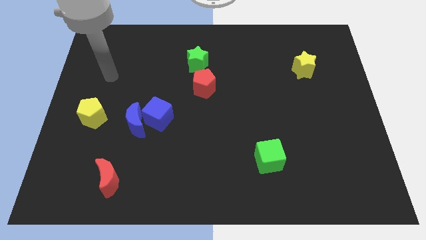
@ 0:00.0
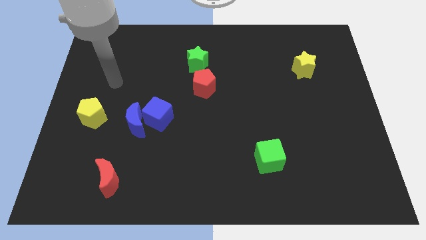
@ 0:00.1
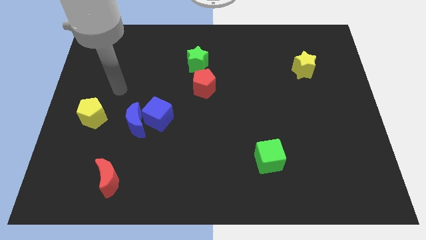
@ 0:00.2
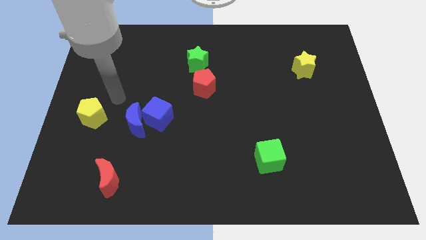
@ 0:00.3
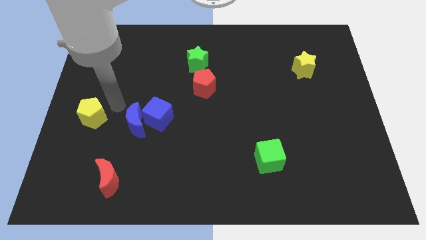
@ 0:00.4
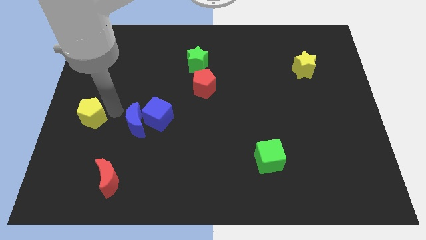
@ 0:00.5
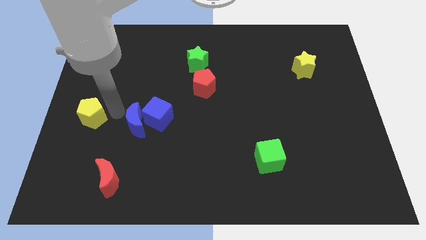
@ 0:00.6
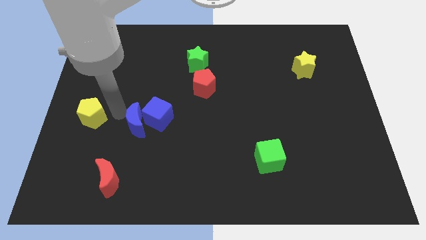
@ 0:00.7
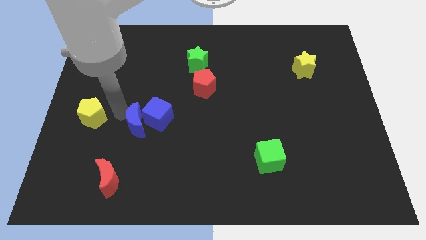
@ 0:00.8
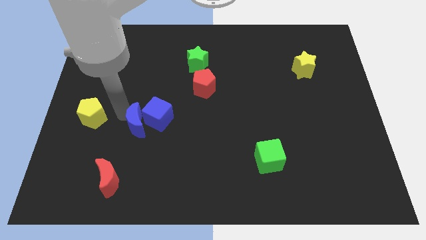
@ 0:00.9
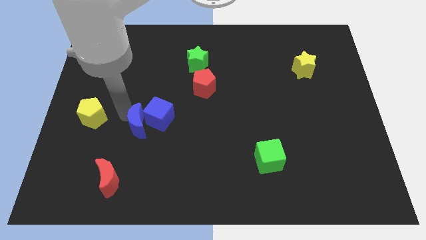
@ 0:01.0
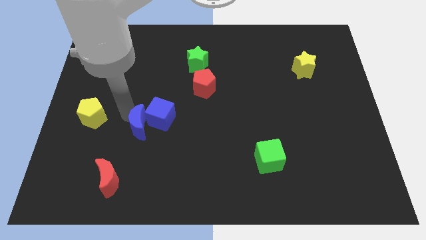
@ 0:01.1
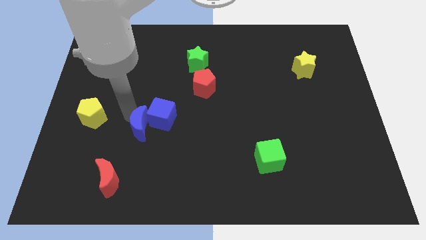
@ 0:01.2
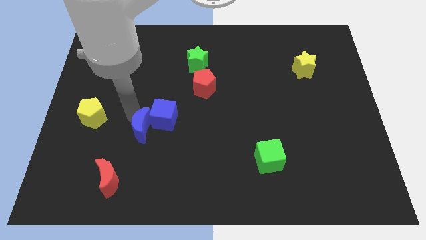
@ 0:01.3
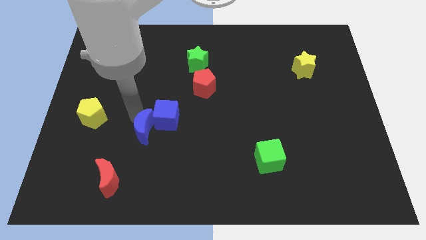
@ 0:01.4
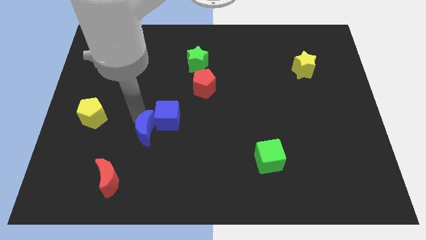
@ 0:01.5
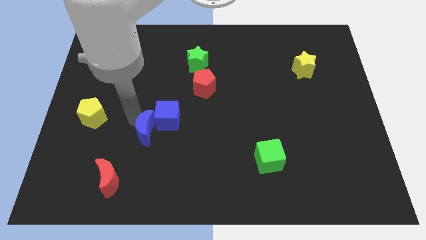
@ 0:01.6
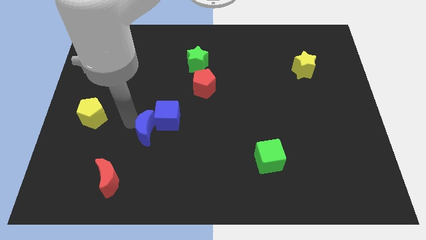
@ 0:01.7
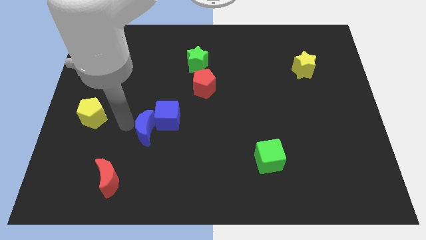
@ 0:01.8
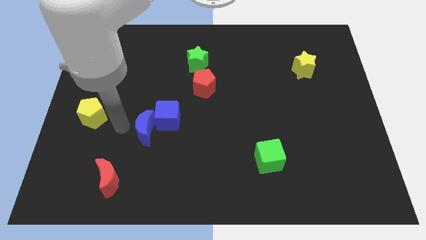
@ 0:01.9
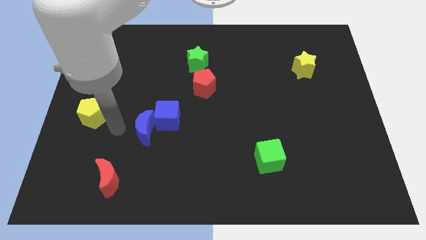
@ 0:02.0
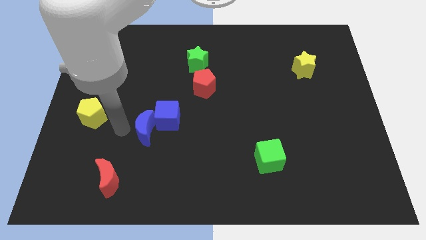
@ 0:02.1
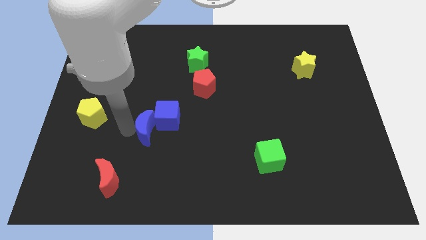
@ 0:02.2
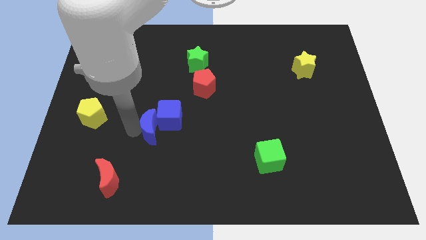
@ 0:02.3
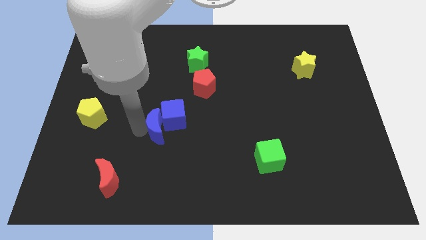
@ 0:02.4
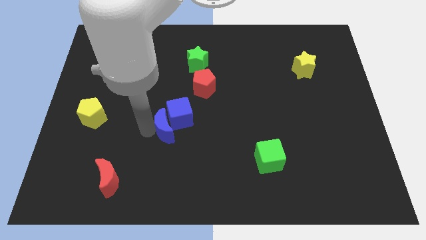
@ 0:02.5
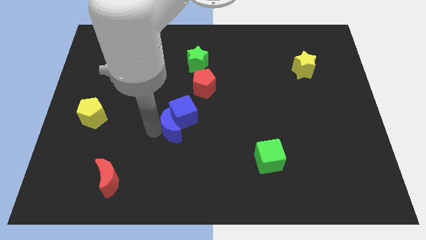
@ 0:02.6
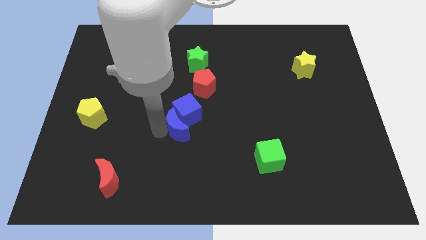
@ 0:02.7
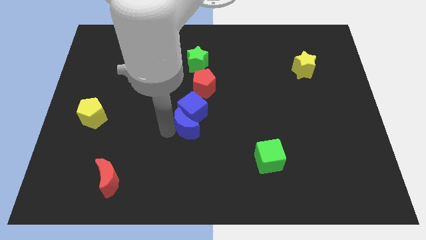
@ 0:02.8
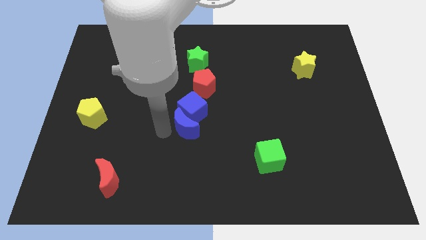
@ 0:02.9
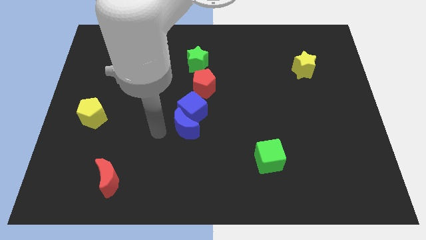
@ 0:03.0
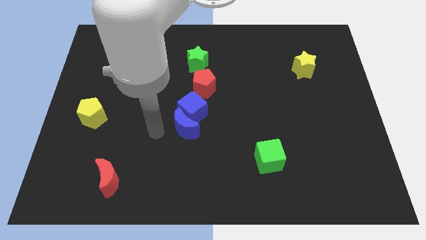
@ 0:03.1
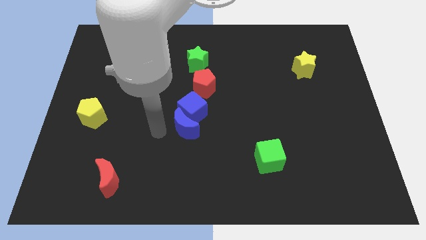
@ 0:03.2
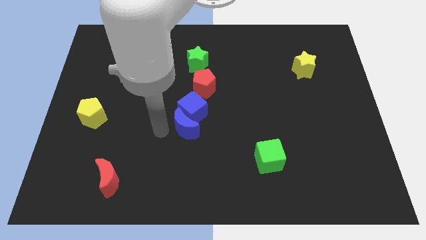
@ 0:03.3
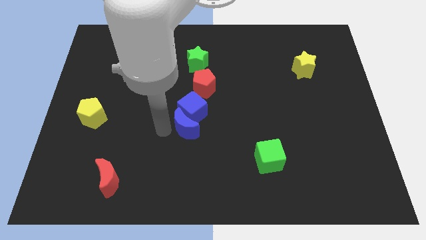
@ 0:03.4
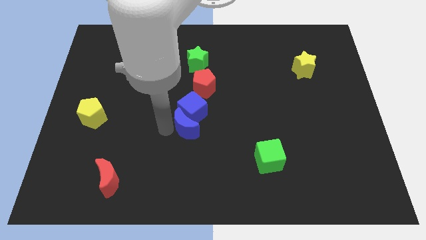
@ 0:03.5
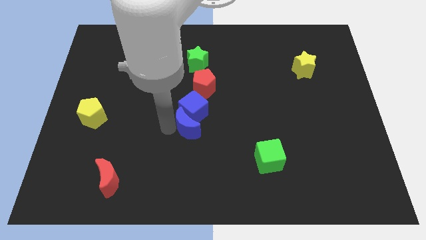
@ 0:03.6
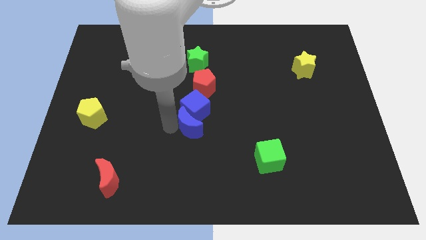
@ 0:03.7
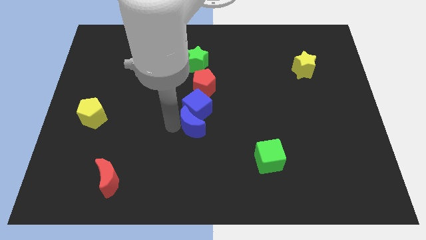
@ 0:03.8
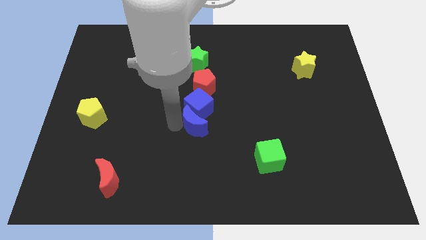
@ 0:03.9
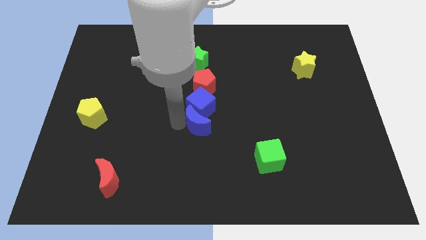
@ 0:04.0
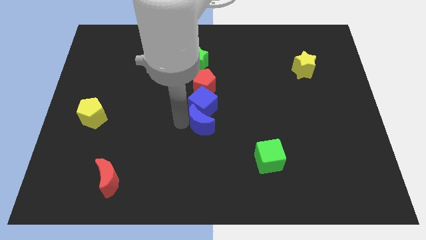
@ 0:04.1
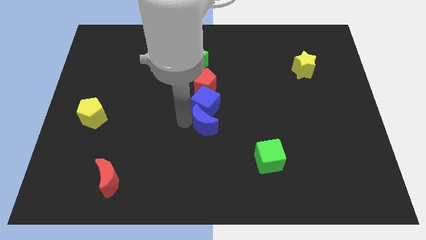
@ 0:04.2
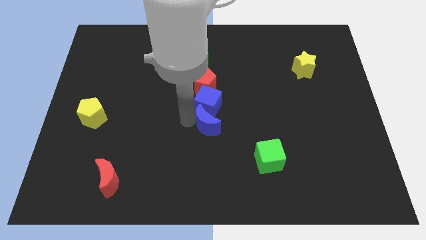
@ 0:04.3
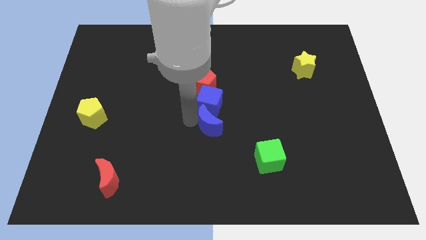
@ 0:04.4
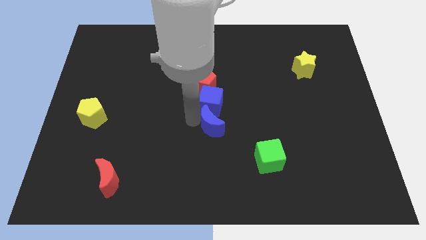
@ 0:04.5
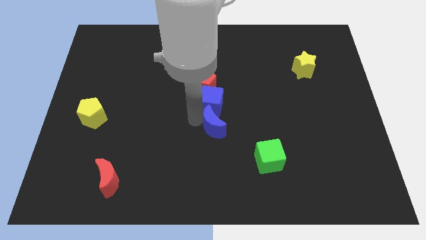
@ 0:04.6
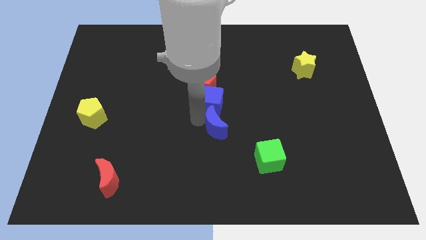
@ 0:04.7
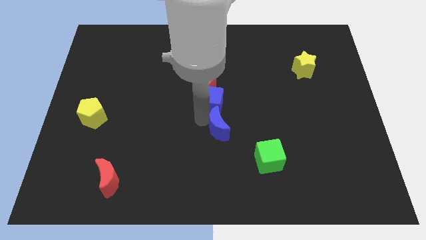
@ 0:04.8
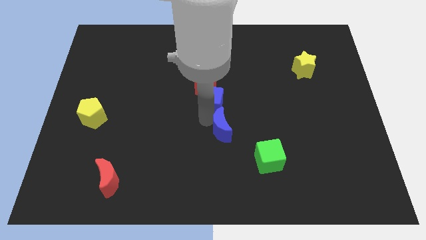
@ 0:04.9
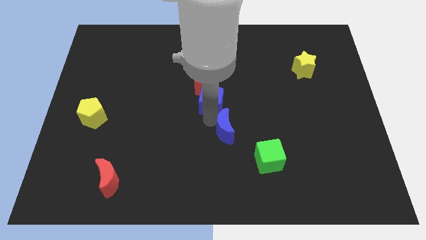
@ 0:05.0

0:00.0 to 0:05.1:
slide the blue moon right

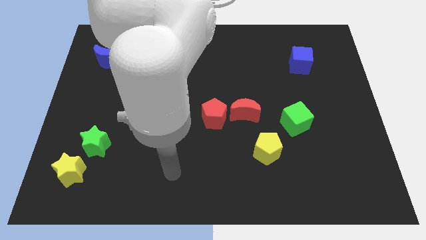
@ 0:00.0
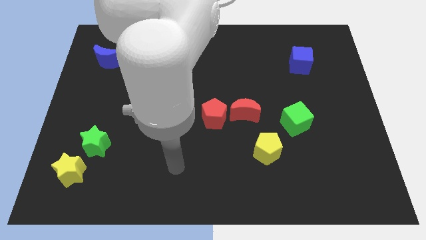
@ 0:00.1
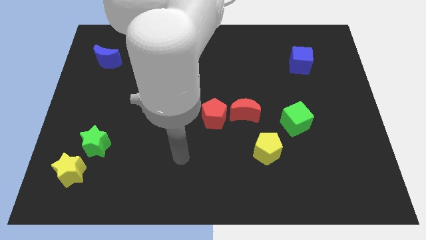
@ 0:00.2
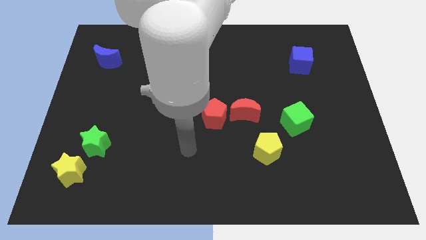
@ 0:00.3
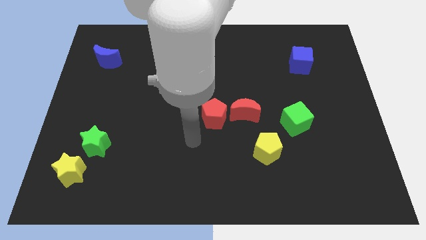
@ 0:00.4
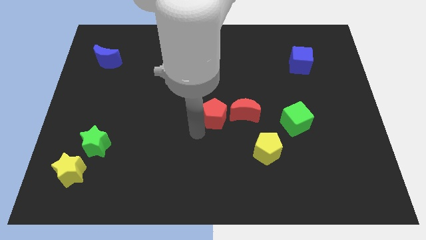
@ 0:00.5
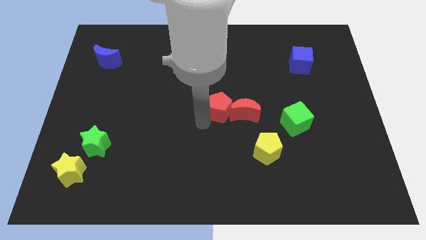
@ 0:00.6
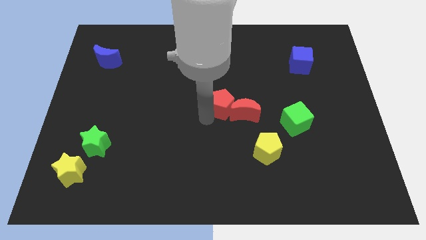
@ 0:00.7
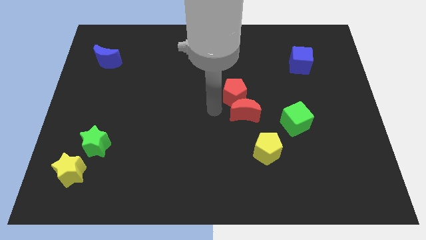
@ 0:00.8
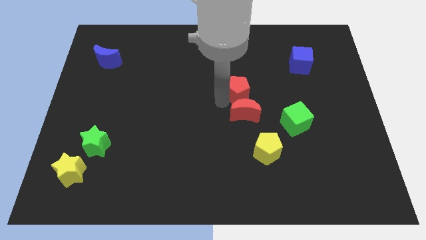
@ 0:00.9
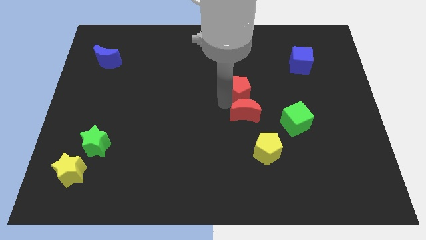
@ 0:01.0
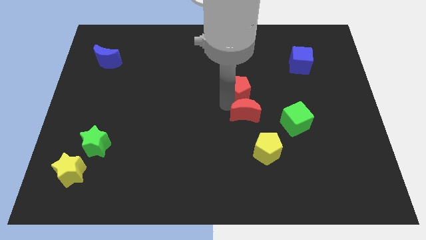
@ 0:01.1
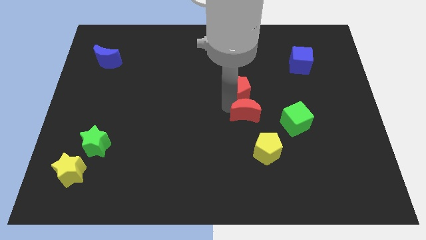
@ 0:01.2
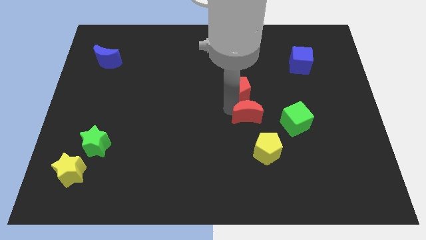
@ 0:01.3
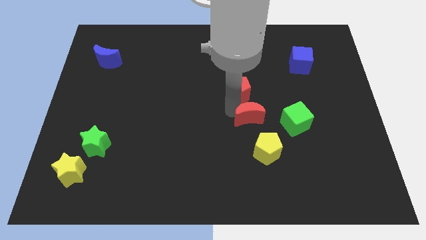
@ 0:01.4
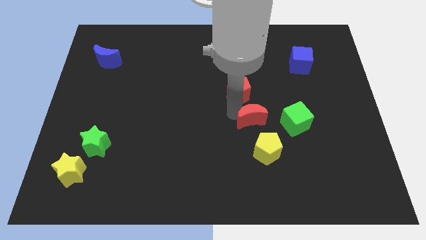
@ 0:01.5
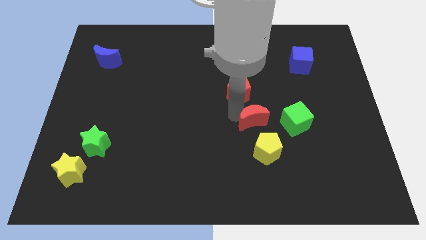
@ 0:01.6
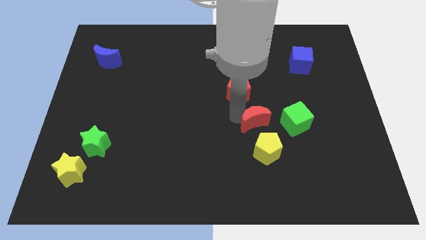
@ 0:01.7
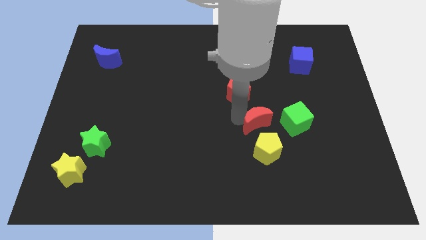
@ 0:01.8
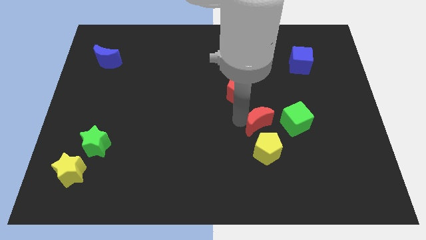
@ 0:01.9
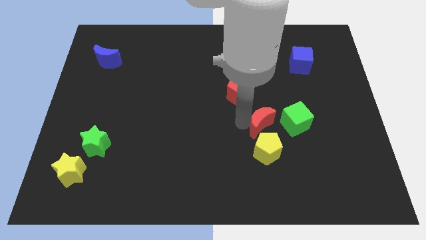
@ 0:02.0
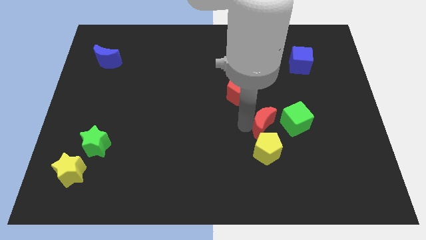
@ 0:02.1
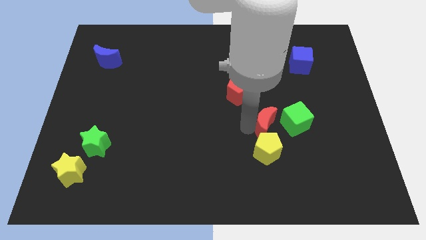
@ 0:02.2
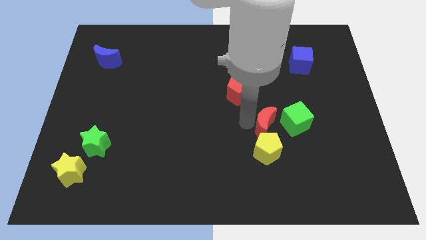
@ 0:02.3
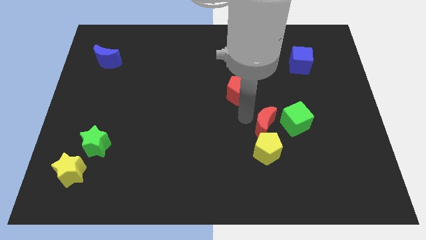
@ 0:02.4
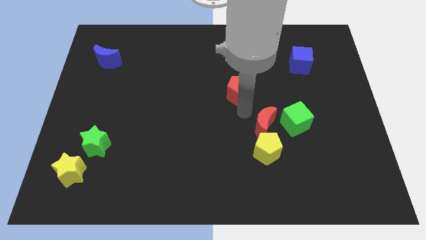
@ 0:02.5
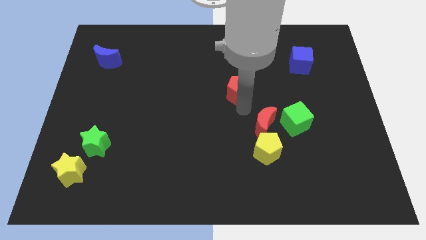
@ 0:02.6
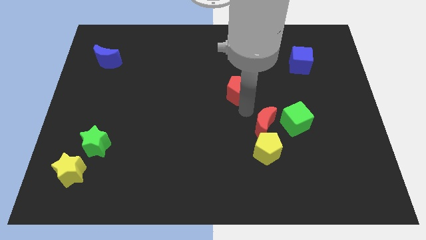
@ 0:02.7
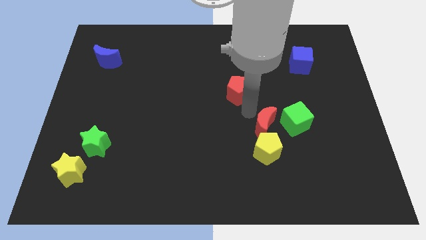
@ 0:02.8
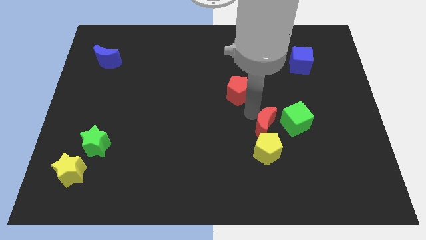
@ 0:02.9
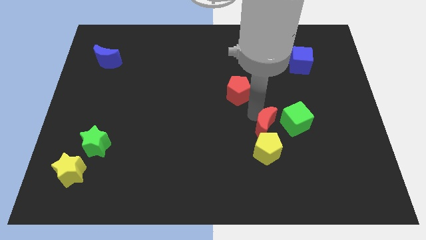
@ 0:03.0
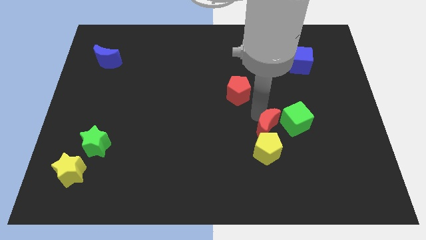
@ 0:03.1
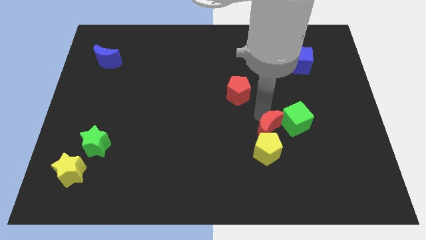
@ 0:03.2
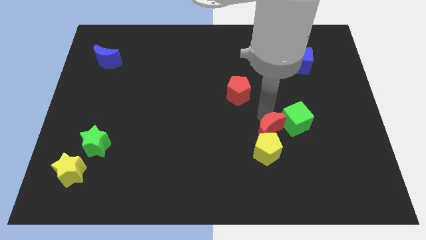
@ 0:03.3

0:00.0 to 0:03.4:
slightly slide the red moon diagonally down and to the right
